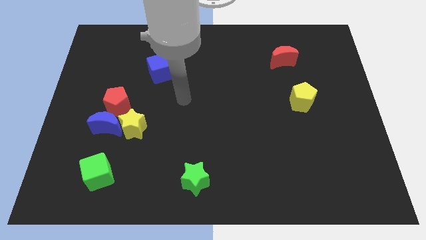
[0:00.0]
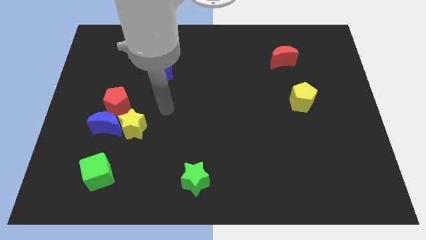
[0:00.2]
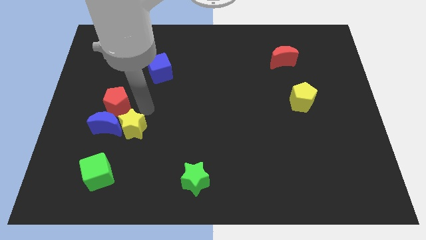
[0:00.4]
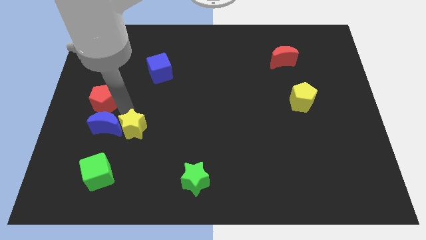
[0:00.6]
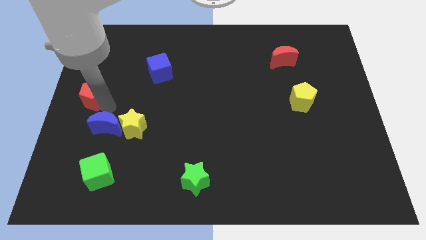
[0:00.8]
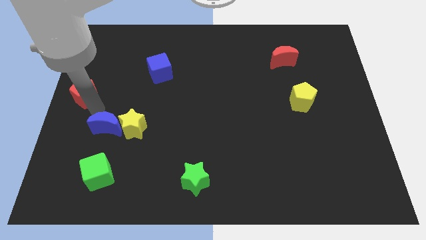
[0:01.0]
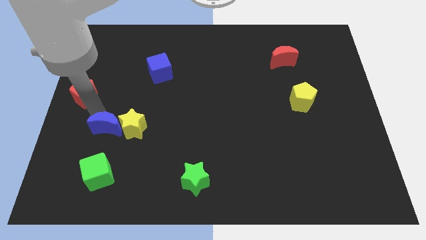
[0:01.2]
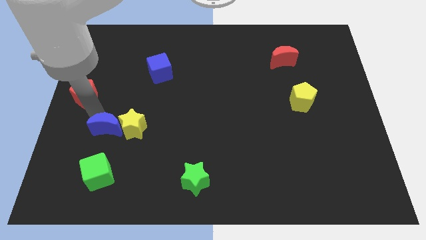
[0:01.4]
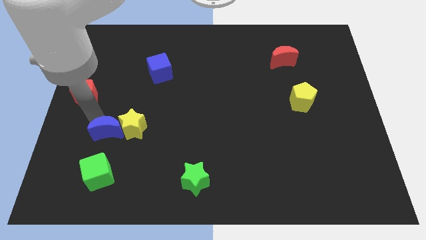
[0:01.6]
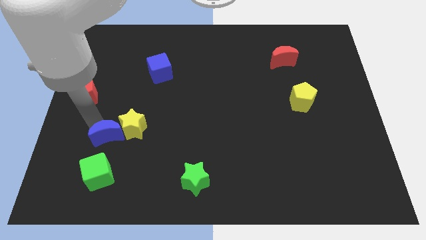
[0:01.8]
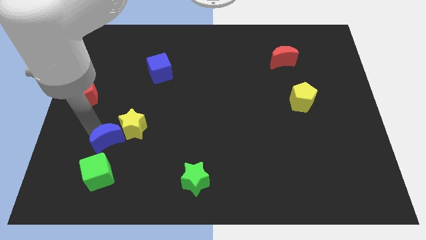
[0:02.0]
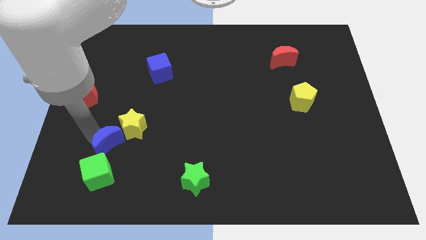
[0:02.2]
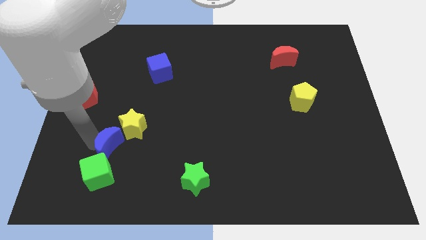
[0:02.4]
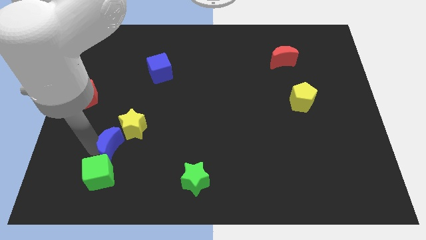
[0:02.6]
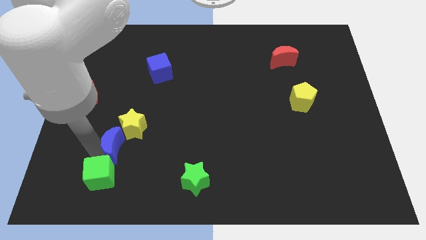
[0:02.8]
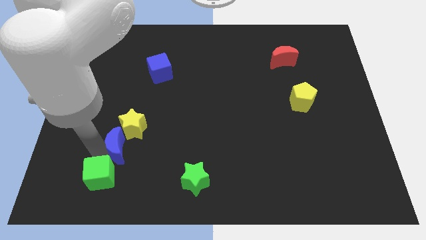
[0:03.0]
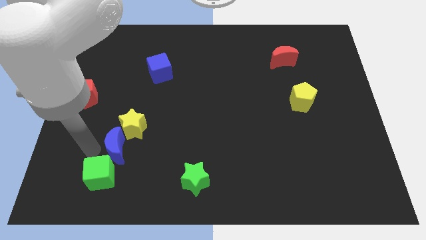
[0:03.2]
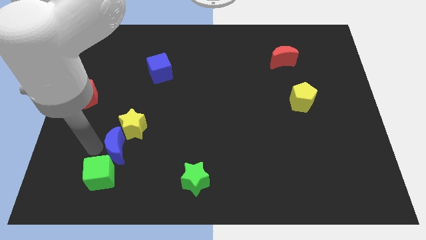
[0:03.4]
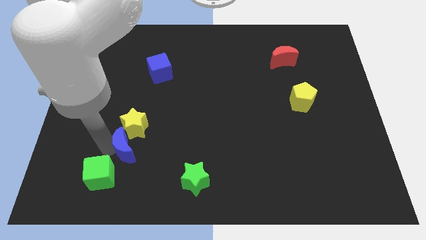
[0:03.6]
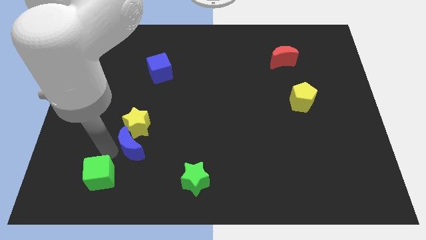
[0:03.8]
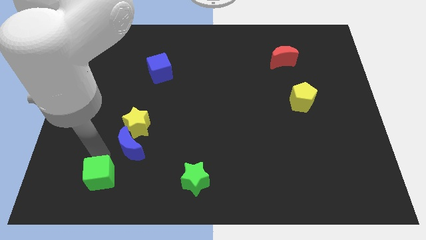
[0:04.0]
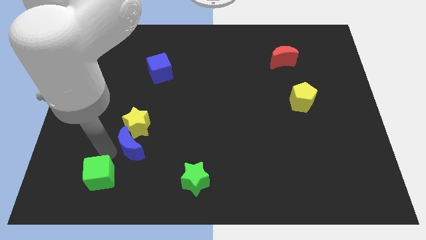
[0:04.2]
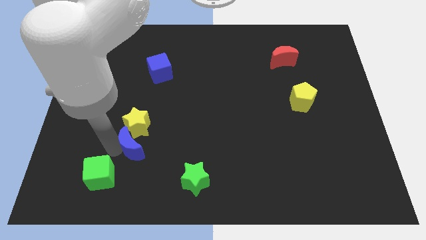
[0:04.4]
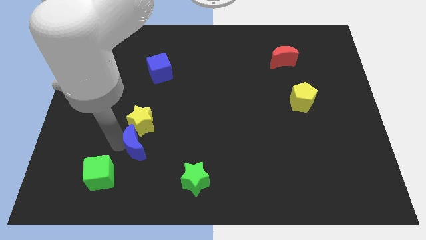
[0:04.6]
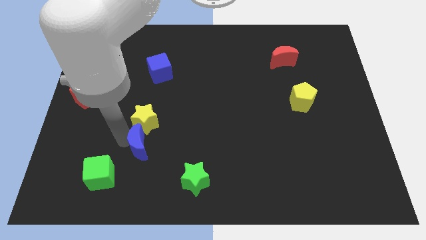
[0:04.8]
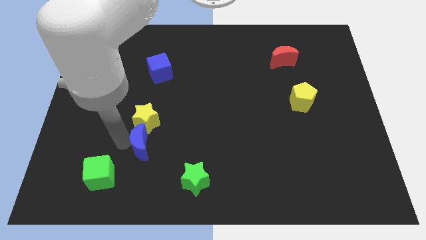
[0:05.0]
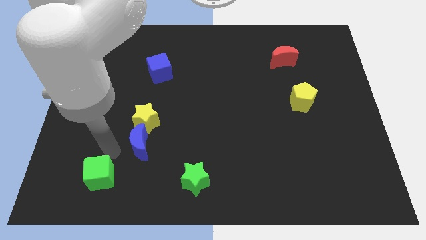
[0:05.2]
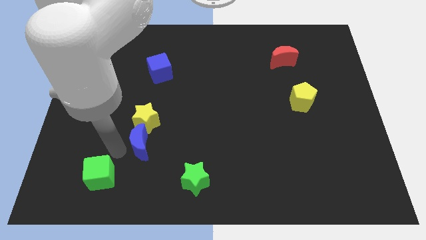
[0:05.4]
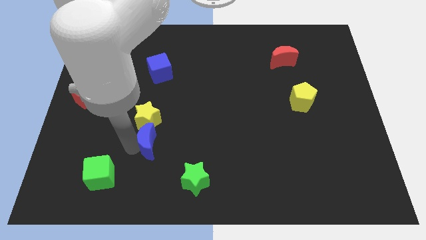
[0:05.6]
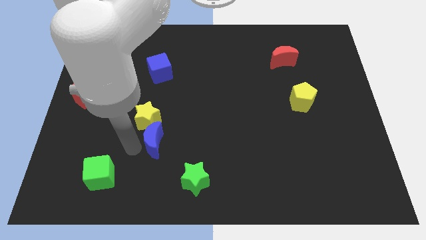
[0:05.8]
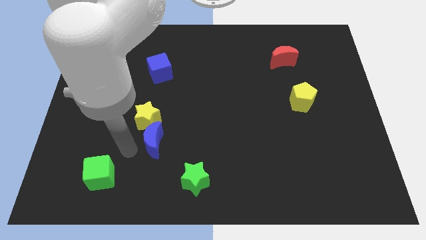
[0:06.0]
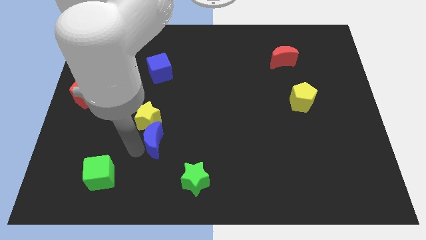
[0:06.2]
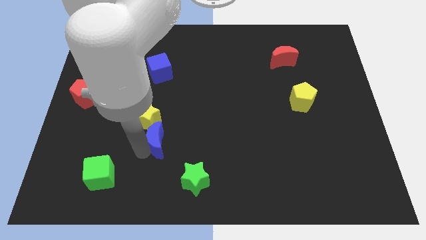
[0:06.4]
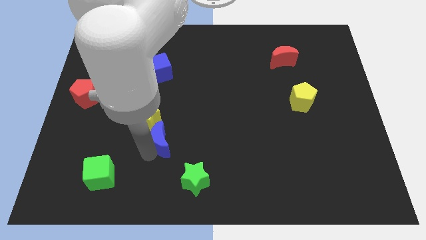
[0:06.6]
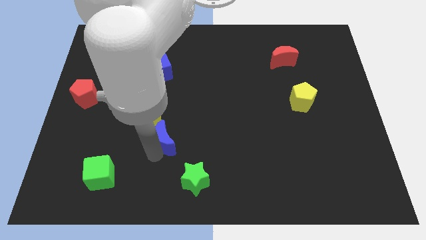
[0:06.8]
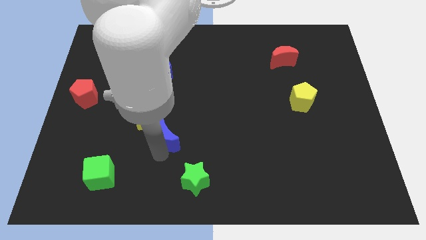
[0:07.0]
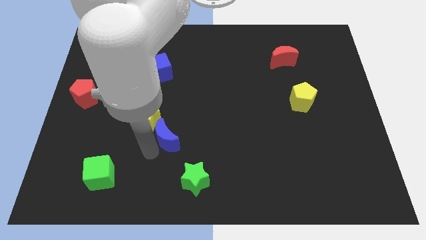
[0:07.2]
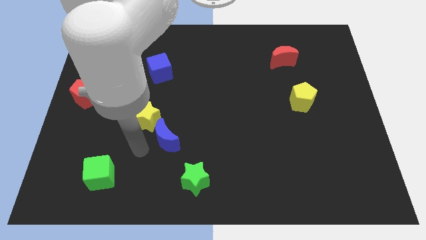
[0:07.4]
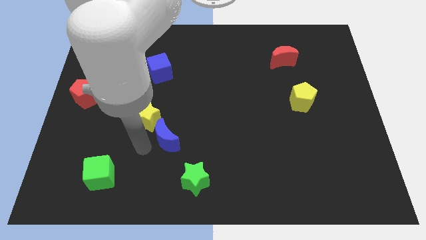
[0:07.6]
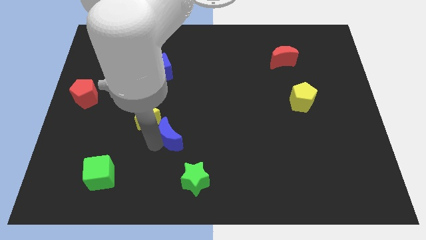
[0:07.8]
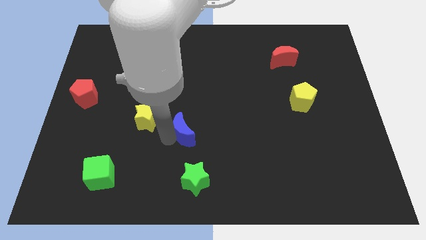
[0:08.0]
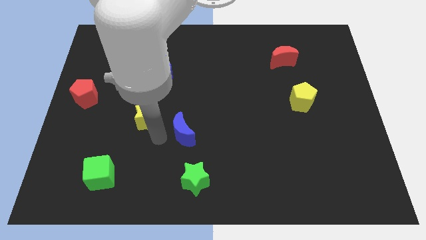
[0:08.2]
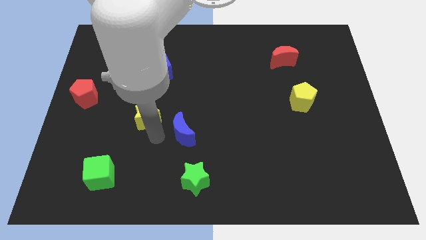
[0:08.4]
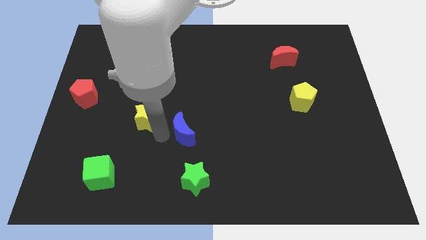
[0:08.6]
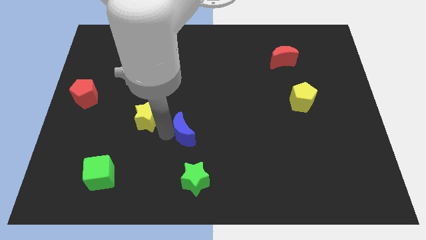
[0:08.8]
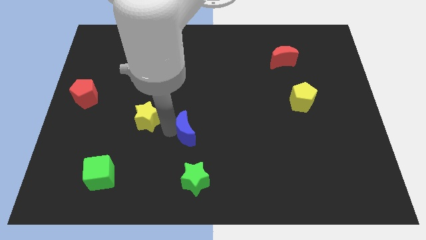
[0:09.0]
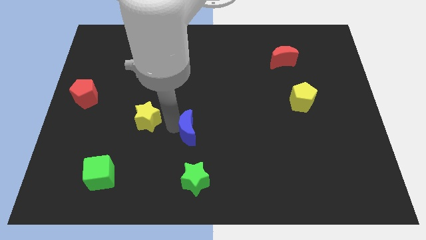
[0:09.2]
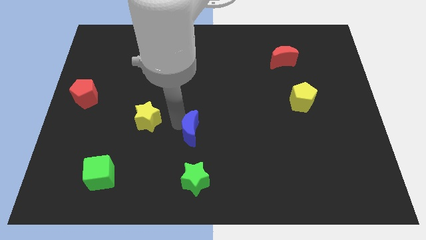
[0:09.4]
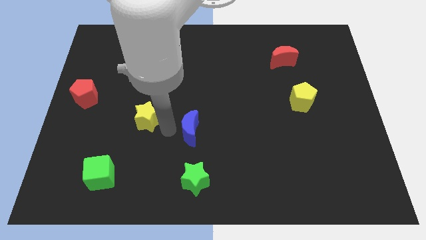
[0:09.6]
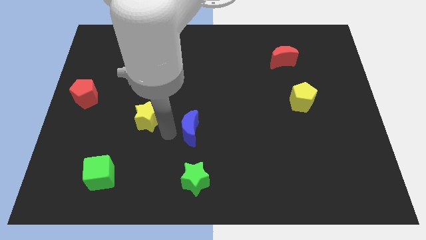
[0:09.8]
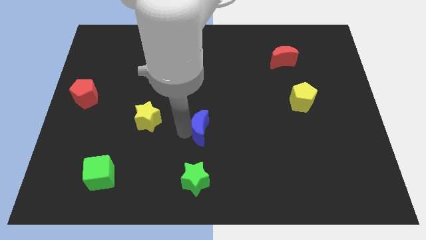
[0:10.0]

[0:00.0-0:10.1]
move the blue moon to the right

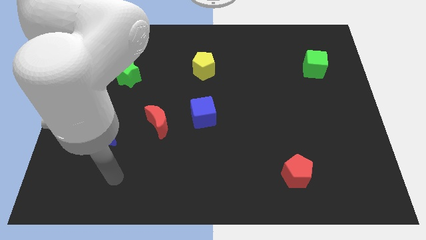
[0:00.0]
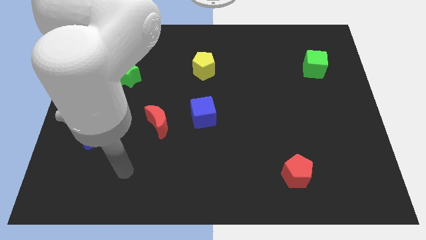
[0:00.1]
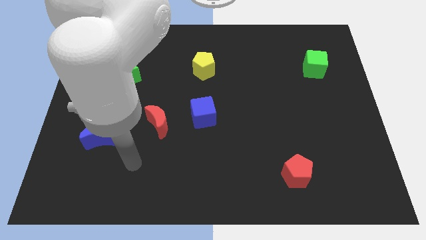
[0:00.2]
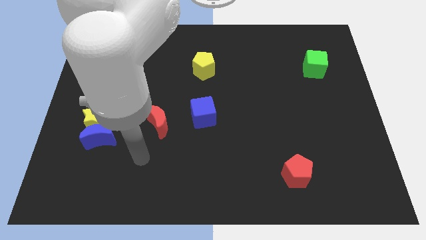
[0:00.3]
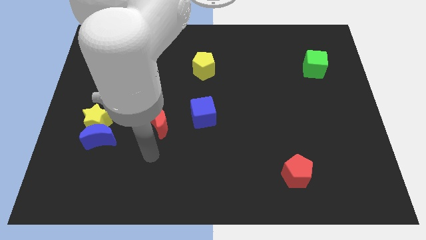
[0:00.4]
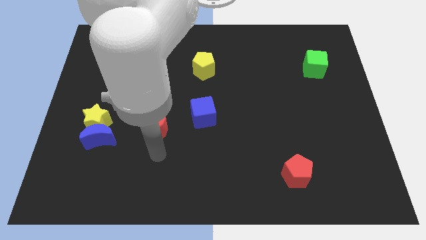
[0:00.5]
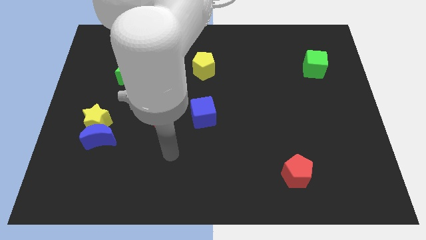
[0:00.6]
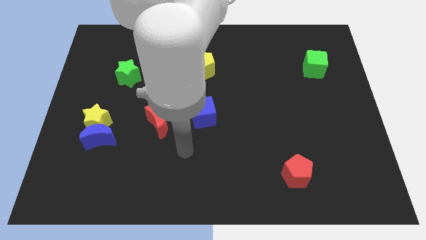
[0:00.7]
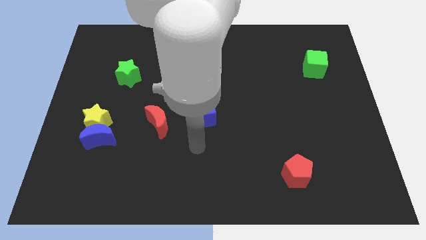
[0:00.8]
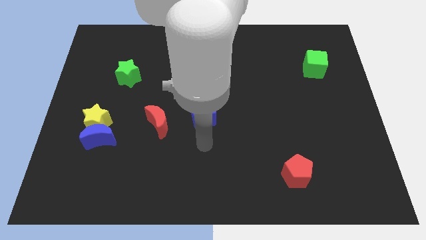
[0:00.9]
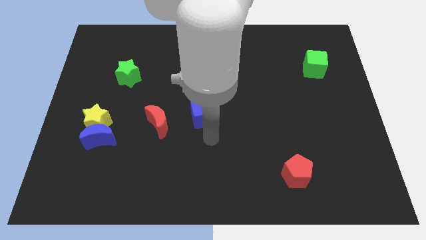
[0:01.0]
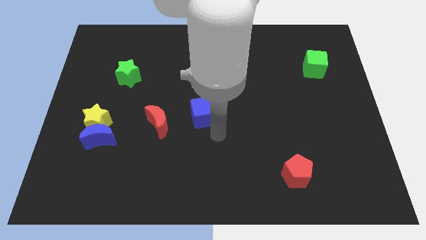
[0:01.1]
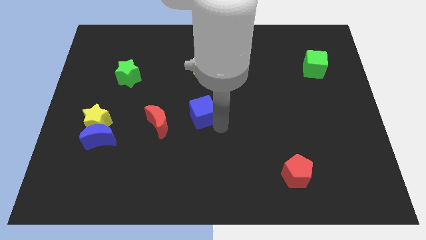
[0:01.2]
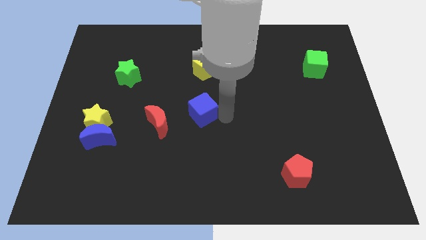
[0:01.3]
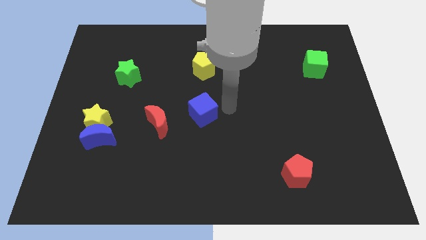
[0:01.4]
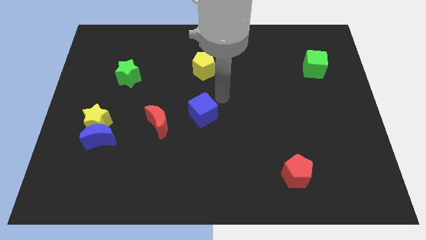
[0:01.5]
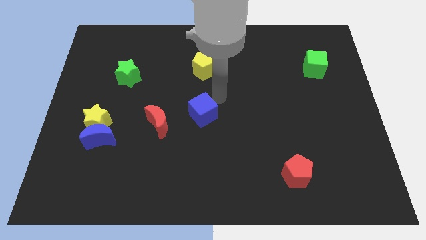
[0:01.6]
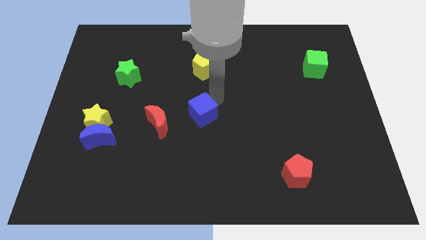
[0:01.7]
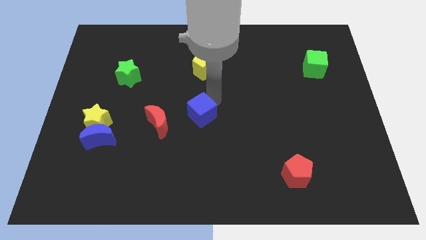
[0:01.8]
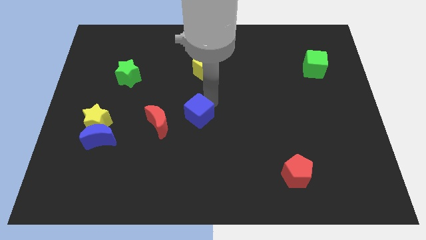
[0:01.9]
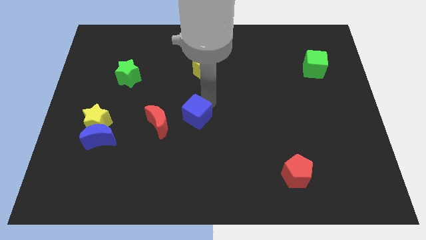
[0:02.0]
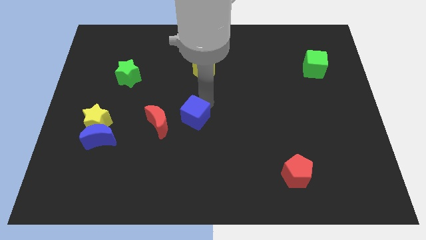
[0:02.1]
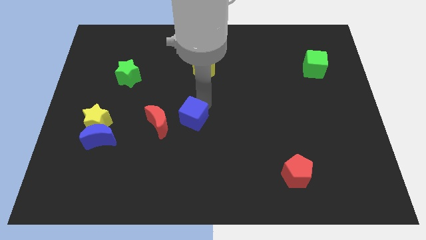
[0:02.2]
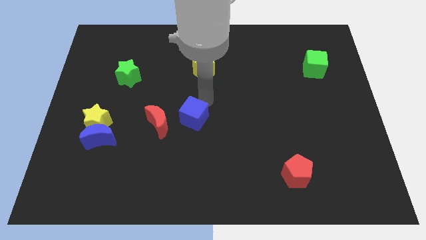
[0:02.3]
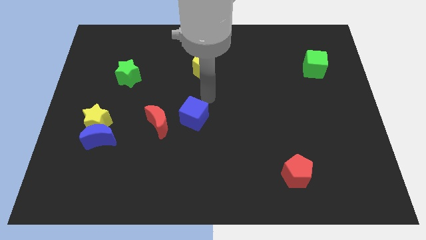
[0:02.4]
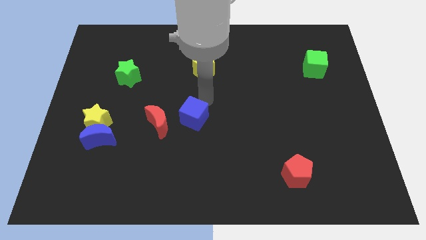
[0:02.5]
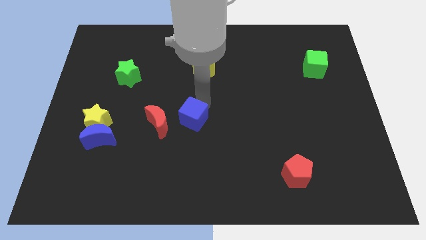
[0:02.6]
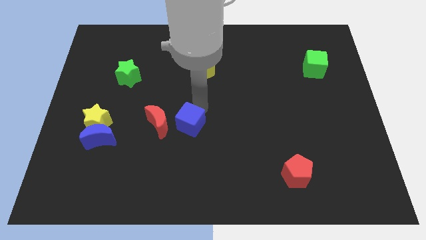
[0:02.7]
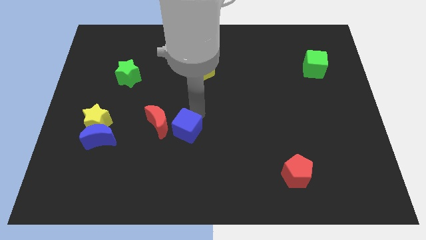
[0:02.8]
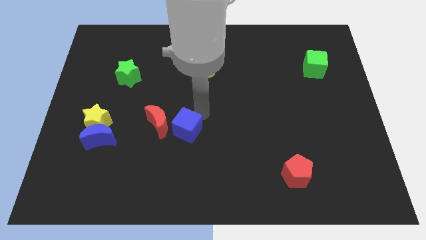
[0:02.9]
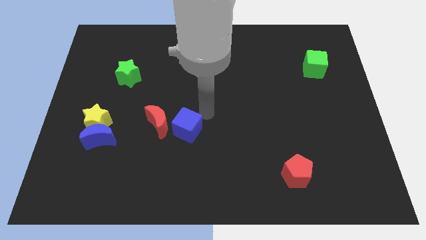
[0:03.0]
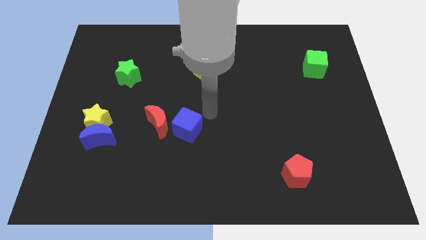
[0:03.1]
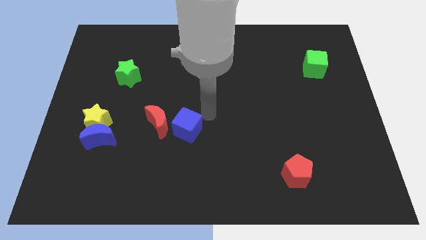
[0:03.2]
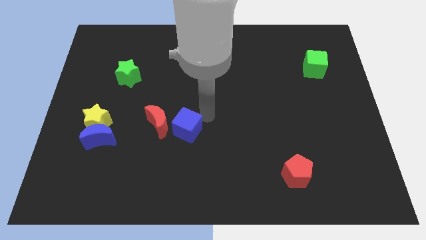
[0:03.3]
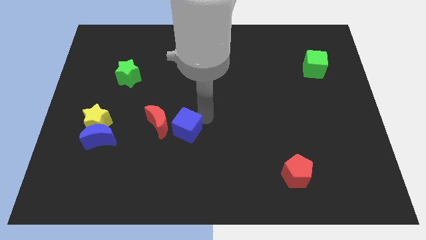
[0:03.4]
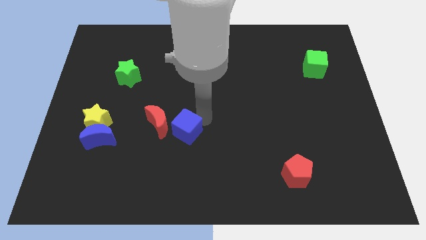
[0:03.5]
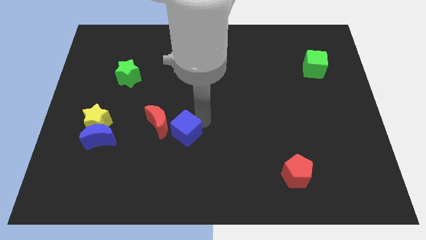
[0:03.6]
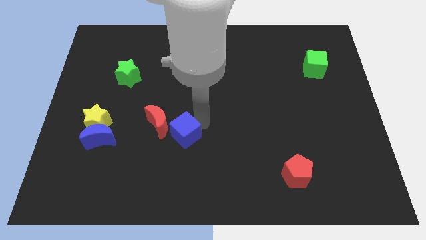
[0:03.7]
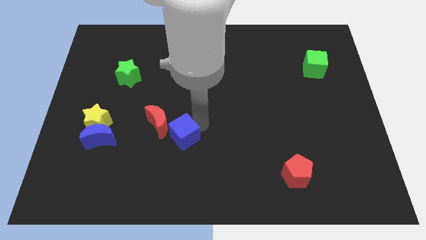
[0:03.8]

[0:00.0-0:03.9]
push the blue cube slightly down and then left
